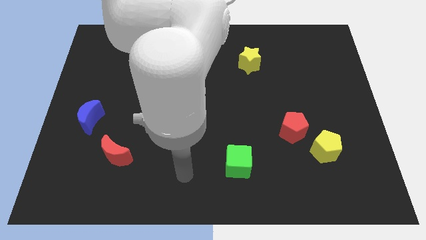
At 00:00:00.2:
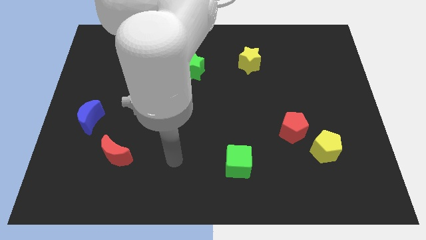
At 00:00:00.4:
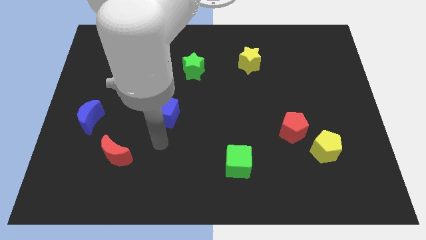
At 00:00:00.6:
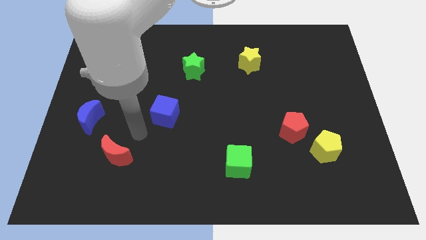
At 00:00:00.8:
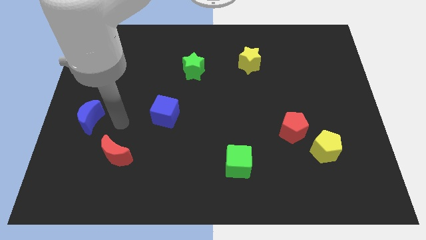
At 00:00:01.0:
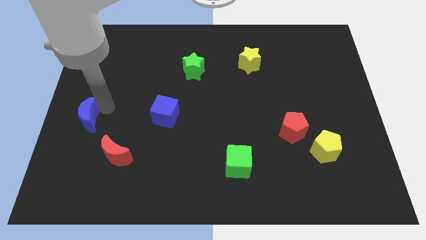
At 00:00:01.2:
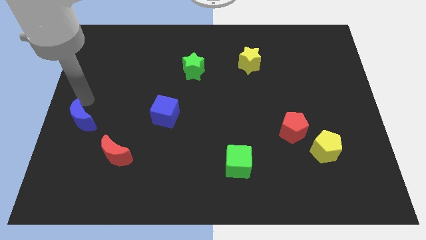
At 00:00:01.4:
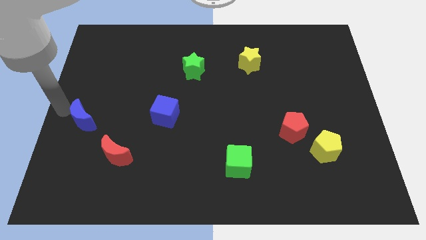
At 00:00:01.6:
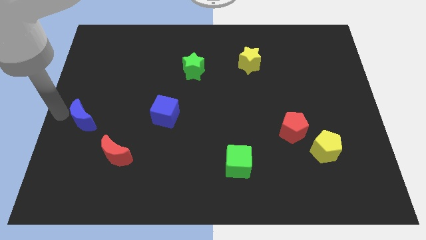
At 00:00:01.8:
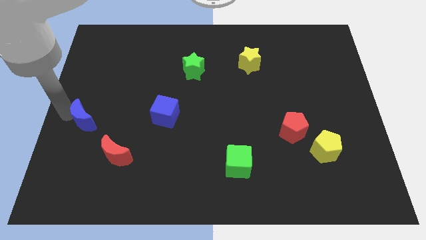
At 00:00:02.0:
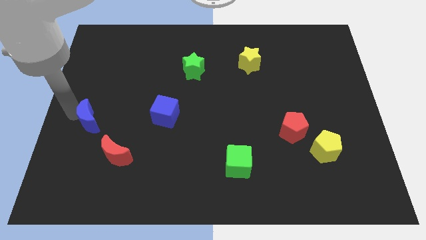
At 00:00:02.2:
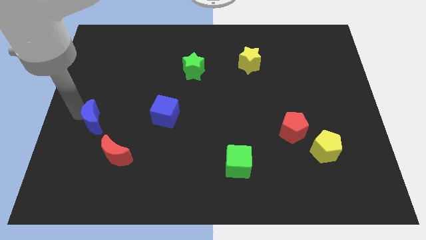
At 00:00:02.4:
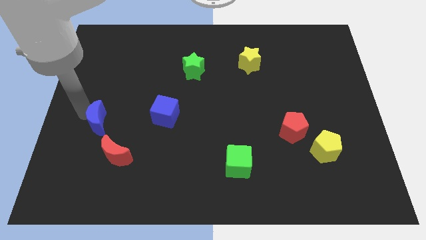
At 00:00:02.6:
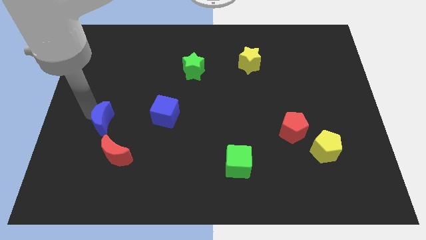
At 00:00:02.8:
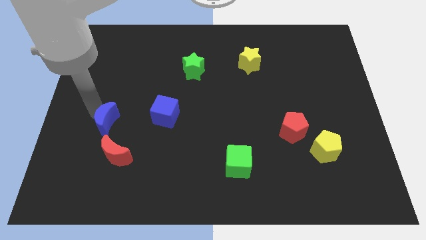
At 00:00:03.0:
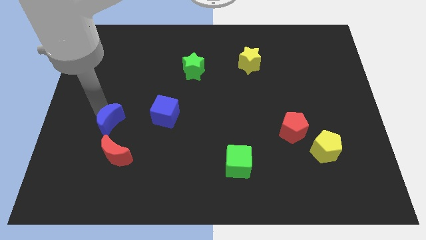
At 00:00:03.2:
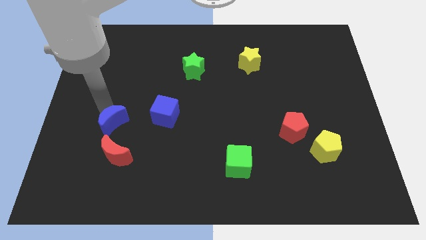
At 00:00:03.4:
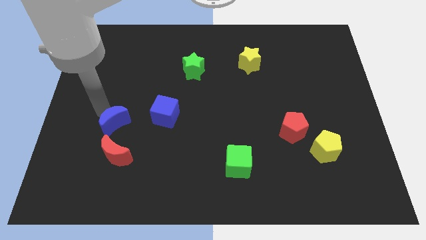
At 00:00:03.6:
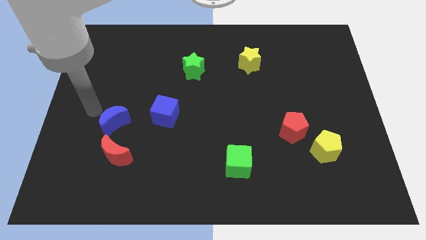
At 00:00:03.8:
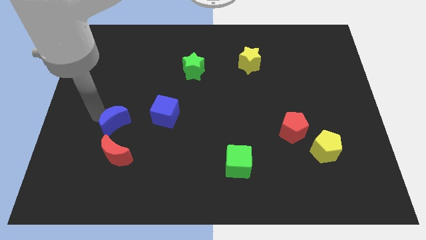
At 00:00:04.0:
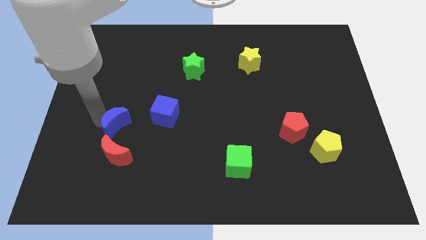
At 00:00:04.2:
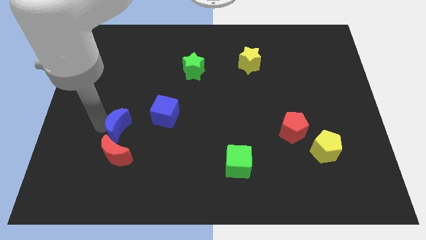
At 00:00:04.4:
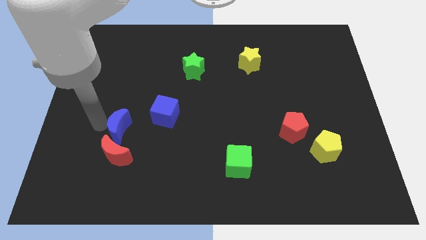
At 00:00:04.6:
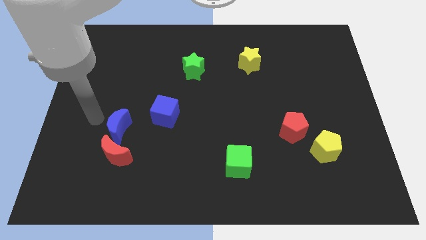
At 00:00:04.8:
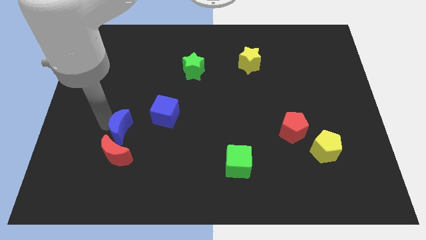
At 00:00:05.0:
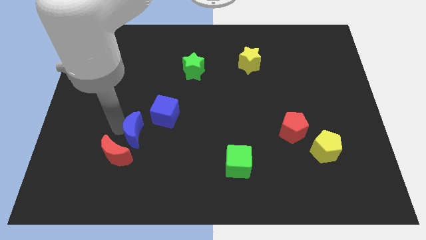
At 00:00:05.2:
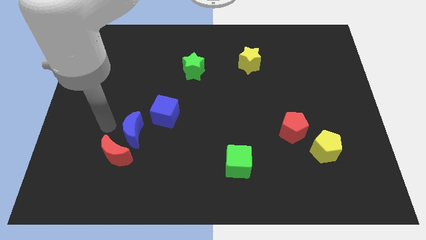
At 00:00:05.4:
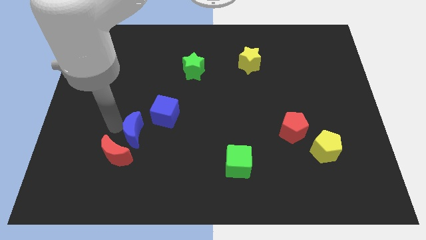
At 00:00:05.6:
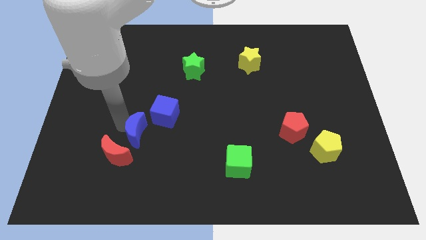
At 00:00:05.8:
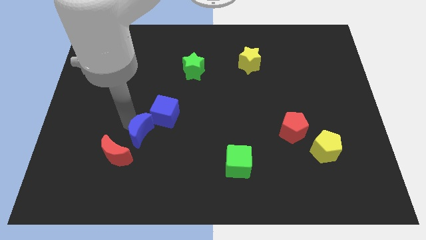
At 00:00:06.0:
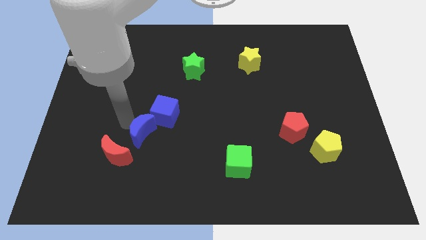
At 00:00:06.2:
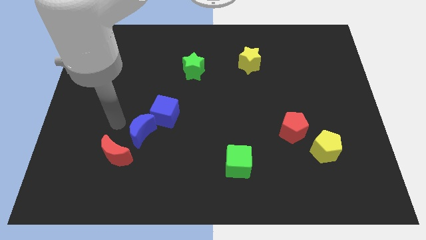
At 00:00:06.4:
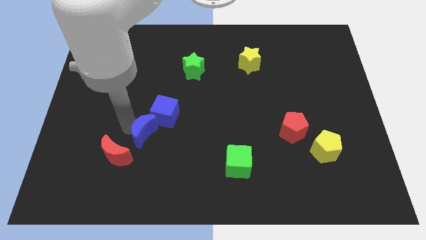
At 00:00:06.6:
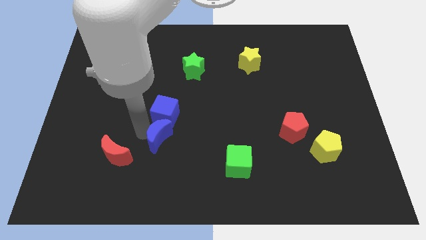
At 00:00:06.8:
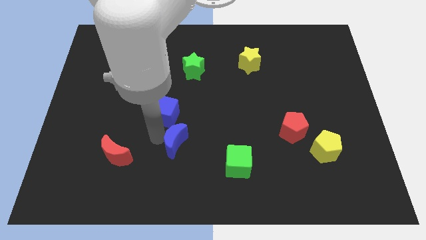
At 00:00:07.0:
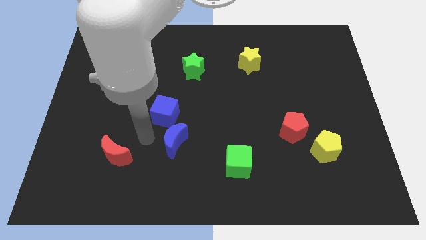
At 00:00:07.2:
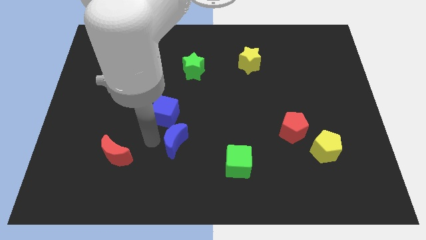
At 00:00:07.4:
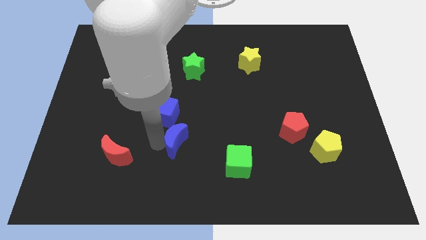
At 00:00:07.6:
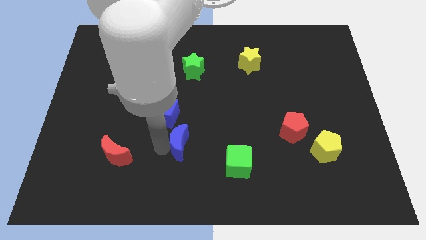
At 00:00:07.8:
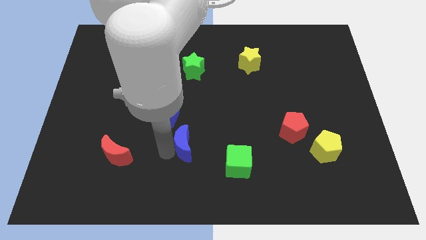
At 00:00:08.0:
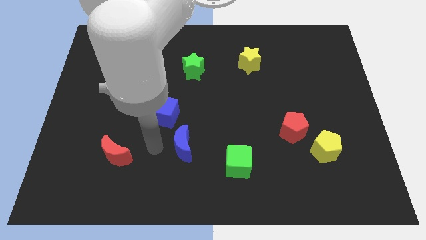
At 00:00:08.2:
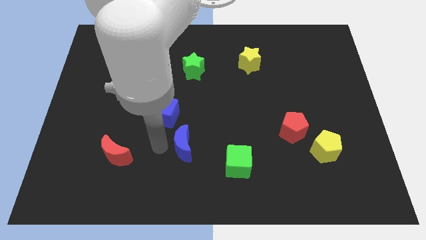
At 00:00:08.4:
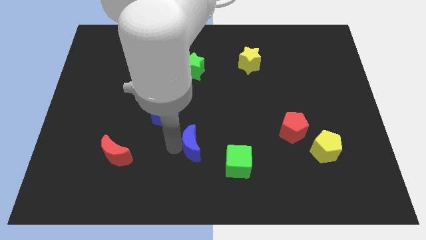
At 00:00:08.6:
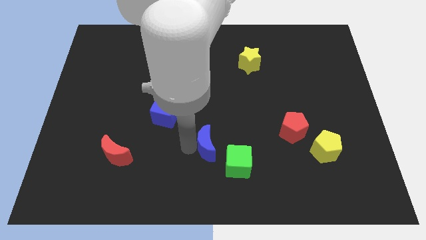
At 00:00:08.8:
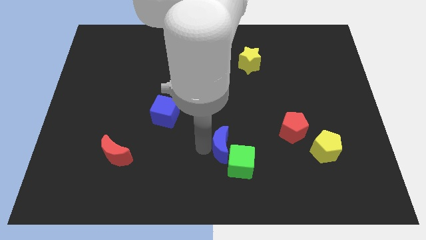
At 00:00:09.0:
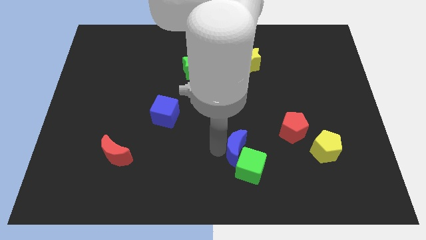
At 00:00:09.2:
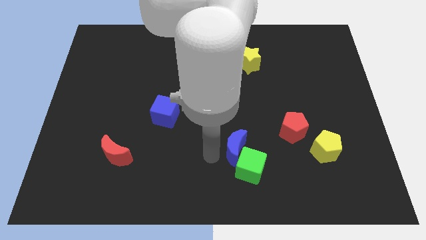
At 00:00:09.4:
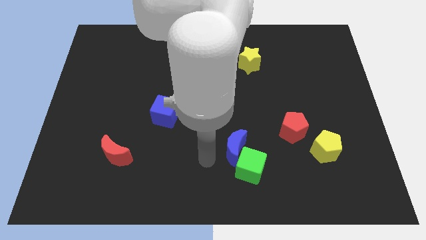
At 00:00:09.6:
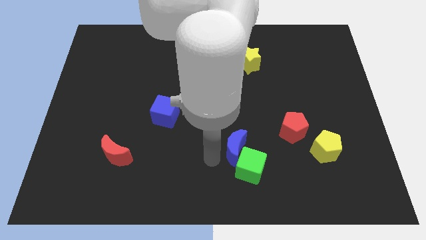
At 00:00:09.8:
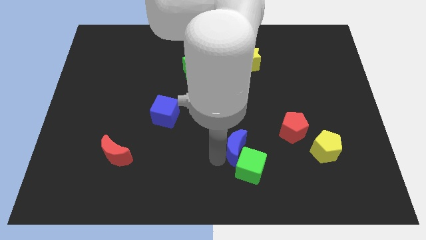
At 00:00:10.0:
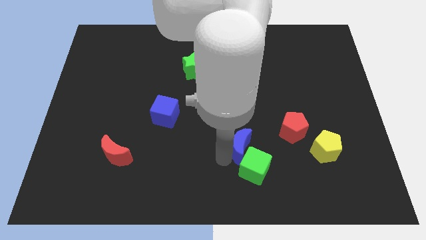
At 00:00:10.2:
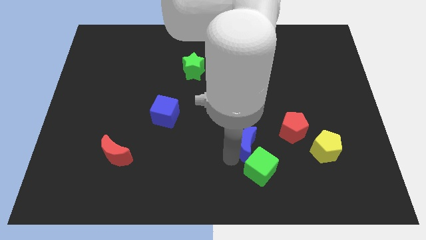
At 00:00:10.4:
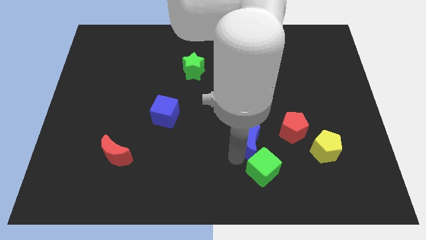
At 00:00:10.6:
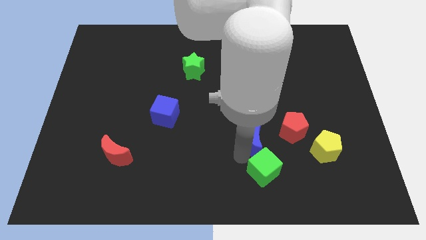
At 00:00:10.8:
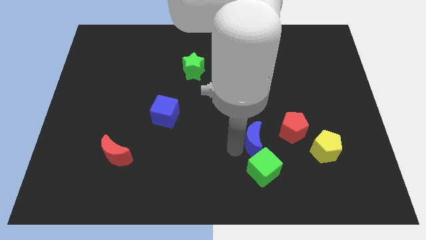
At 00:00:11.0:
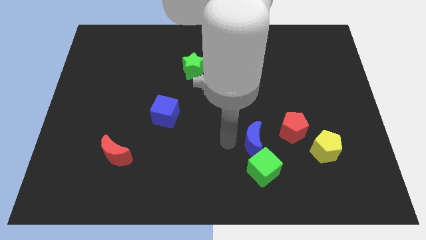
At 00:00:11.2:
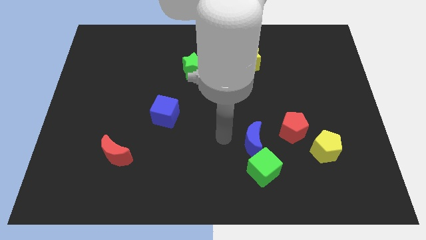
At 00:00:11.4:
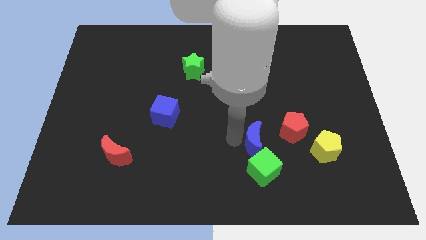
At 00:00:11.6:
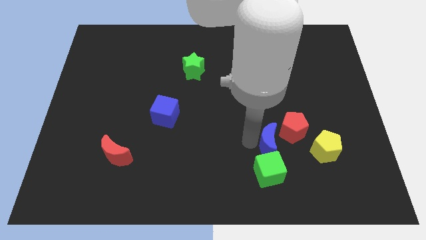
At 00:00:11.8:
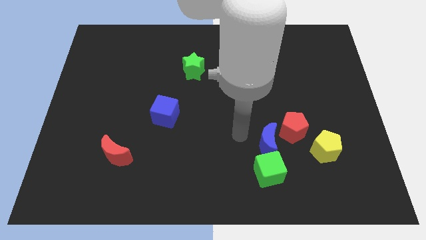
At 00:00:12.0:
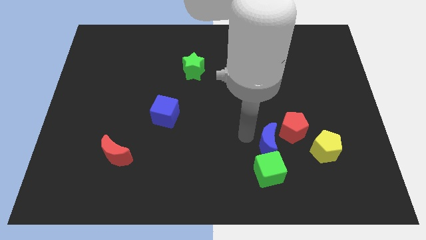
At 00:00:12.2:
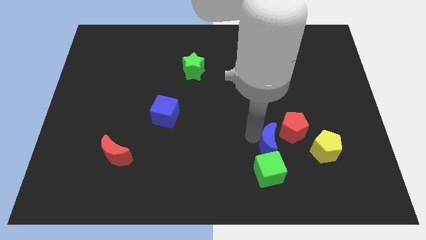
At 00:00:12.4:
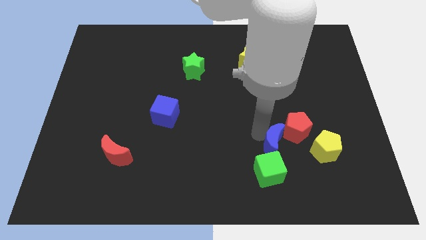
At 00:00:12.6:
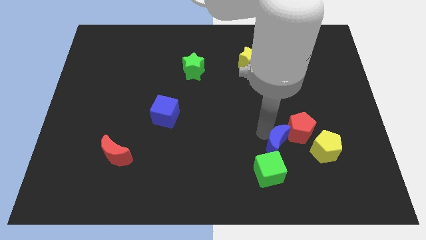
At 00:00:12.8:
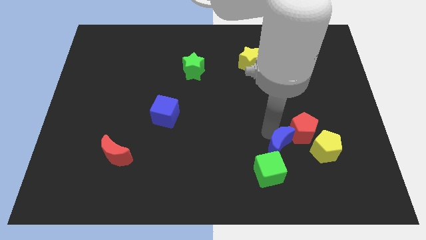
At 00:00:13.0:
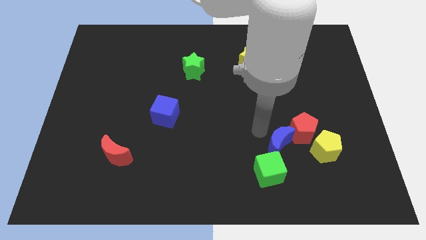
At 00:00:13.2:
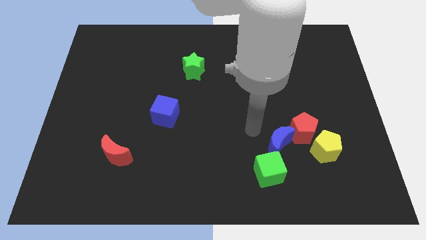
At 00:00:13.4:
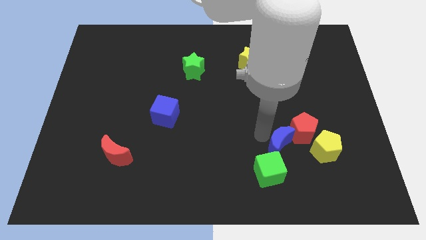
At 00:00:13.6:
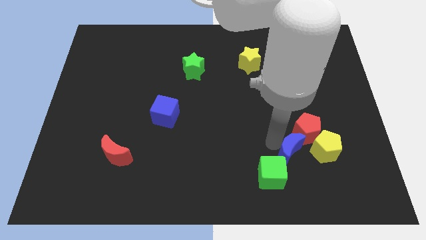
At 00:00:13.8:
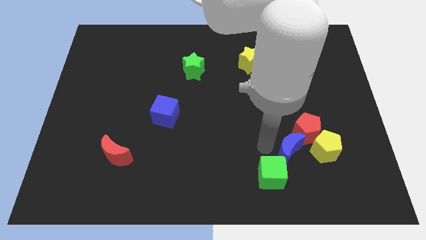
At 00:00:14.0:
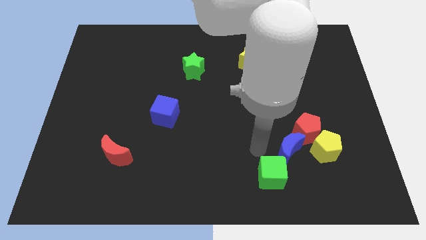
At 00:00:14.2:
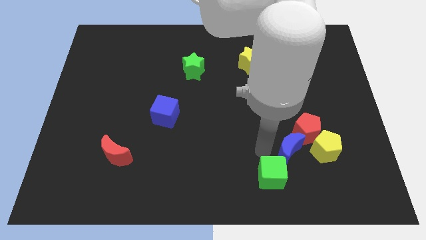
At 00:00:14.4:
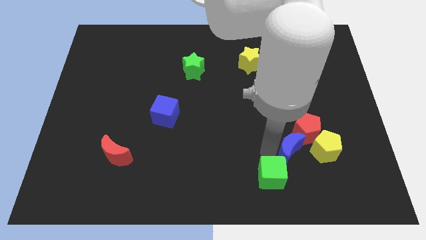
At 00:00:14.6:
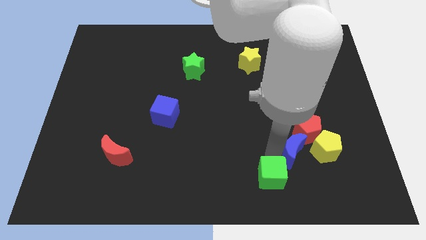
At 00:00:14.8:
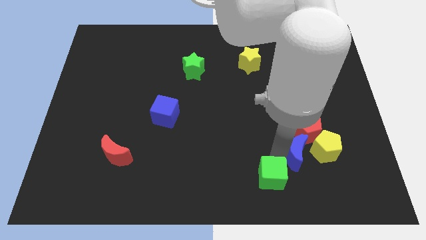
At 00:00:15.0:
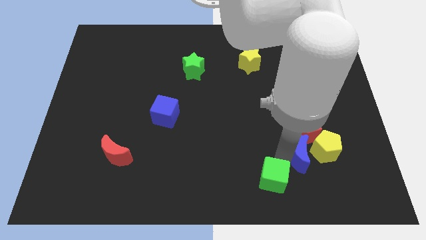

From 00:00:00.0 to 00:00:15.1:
push the blue moon towards the yellow pentagon
